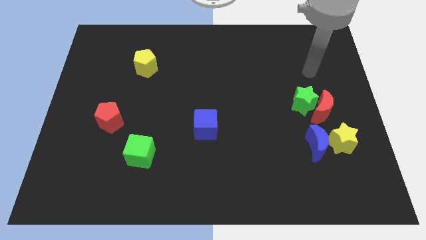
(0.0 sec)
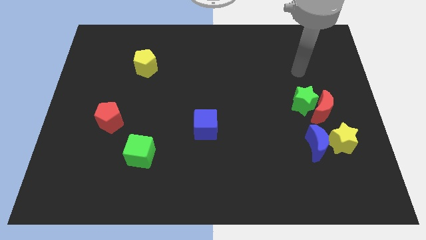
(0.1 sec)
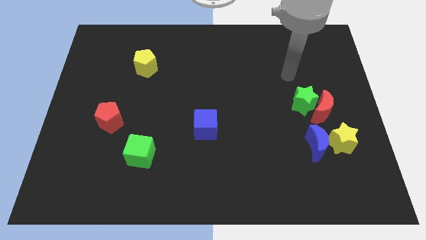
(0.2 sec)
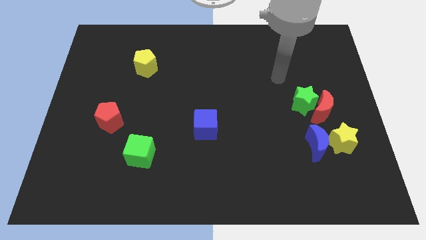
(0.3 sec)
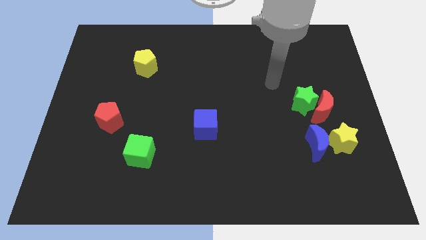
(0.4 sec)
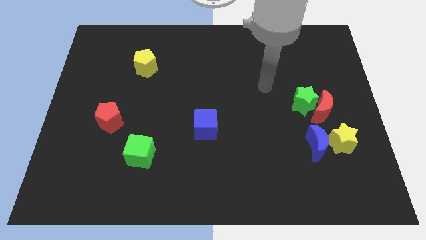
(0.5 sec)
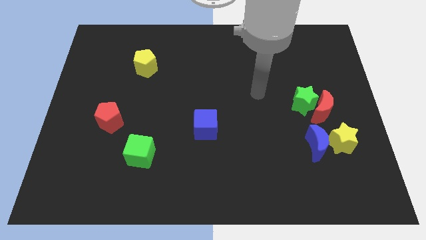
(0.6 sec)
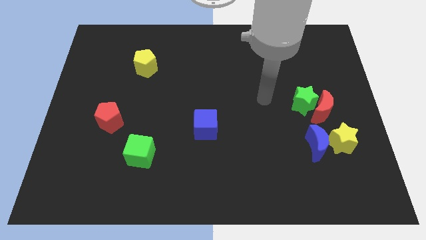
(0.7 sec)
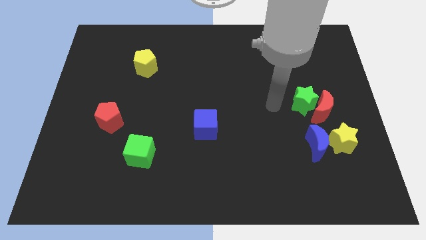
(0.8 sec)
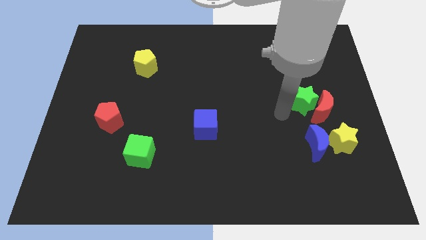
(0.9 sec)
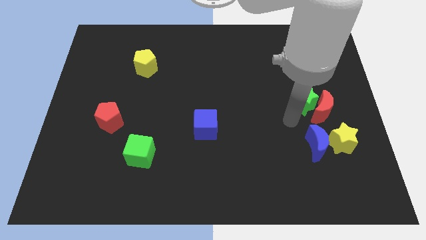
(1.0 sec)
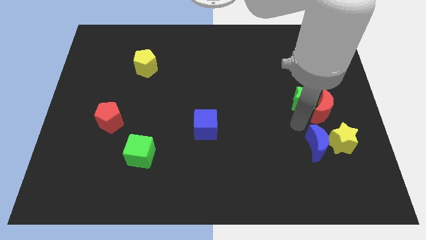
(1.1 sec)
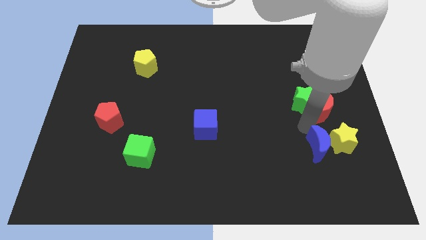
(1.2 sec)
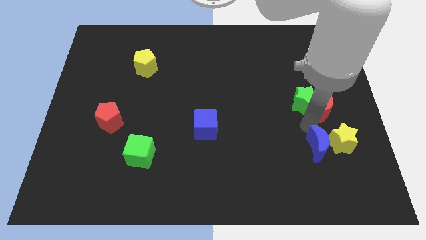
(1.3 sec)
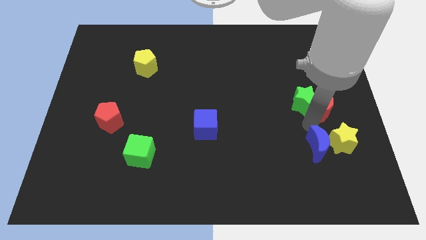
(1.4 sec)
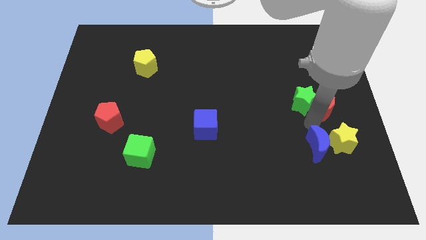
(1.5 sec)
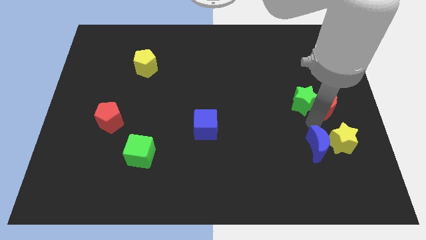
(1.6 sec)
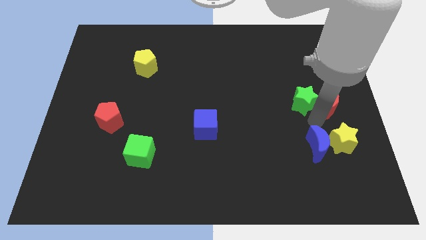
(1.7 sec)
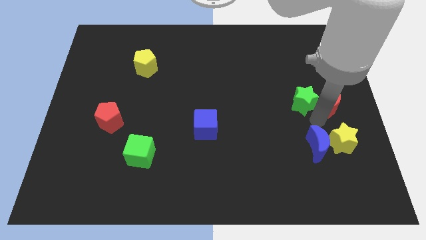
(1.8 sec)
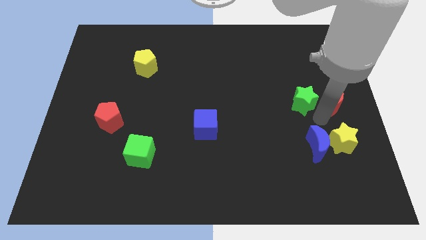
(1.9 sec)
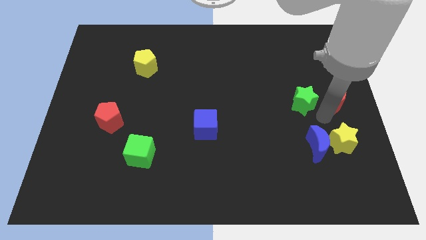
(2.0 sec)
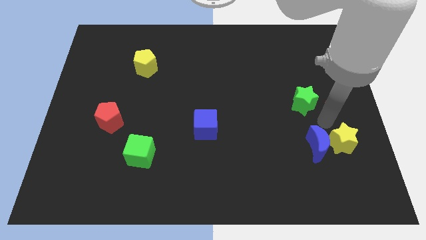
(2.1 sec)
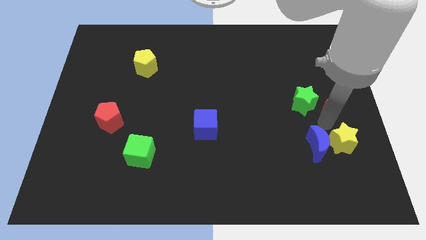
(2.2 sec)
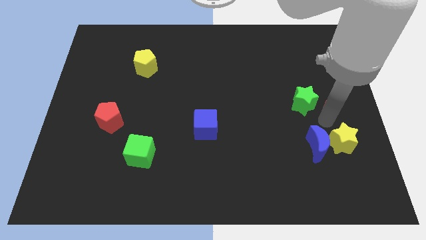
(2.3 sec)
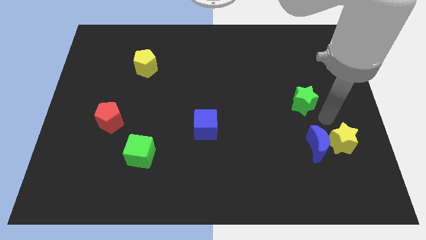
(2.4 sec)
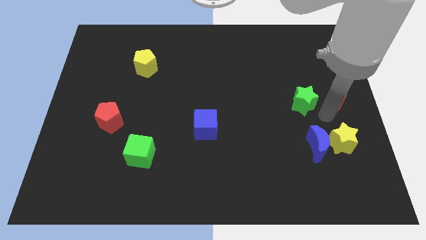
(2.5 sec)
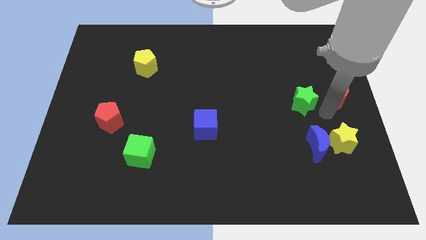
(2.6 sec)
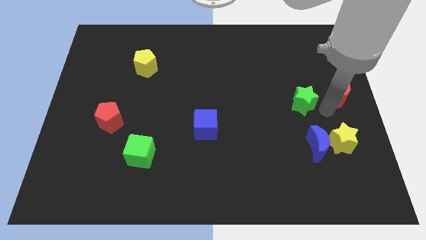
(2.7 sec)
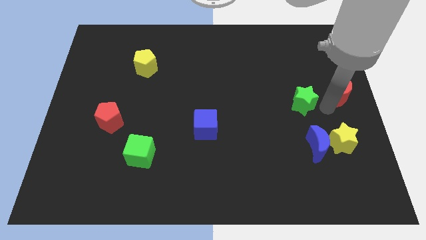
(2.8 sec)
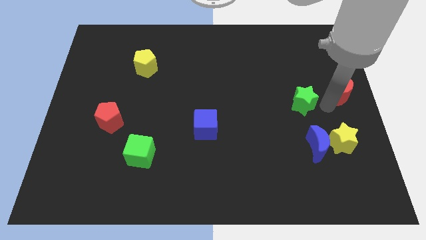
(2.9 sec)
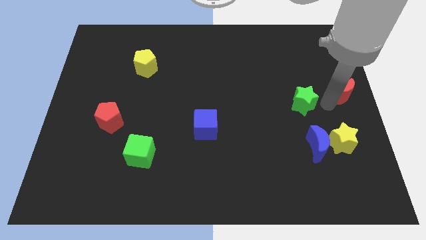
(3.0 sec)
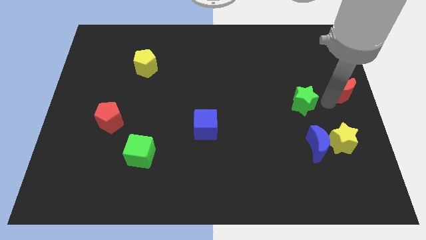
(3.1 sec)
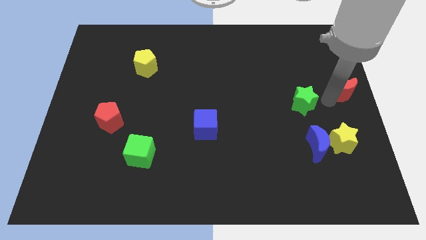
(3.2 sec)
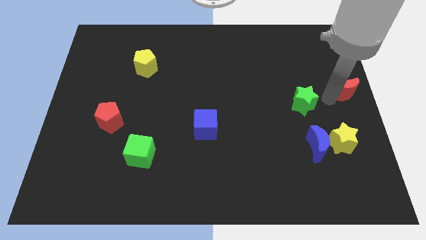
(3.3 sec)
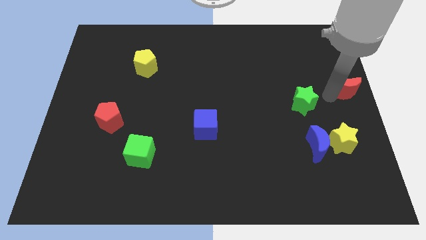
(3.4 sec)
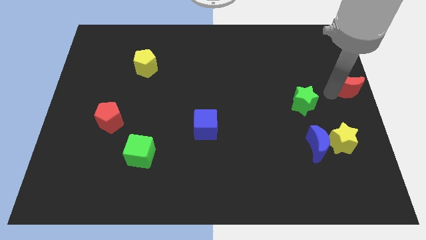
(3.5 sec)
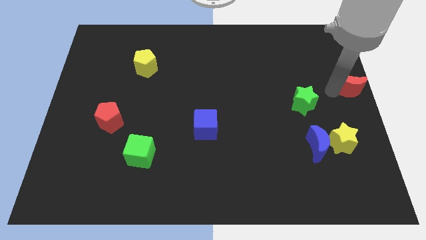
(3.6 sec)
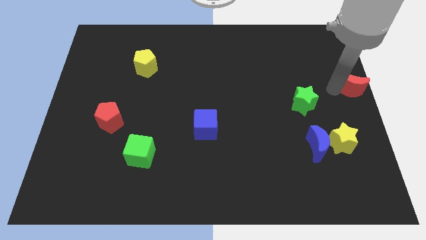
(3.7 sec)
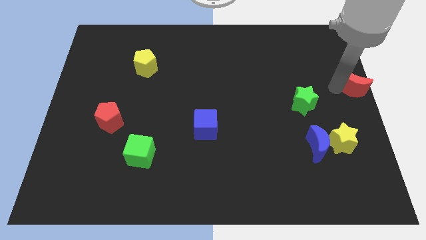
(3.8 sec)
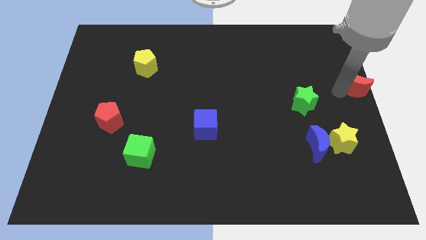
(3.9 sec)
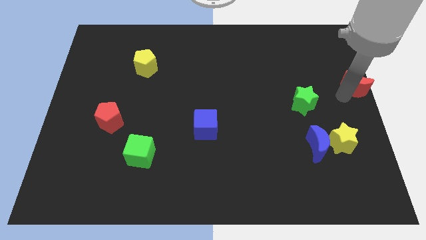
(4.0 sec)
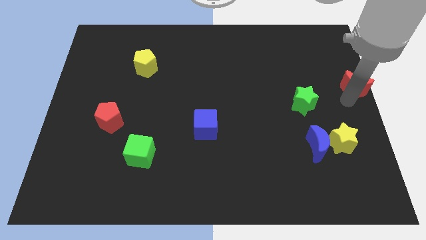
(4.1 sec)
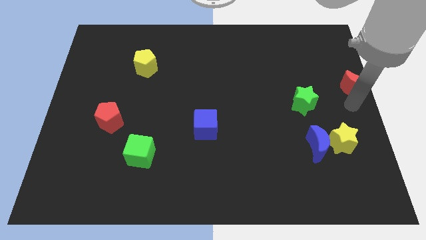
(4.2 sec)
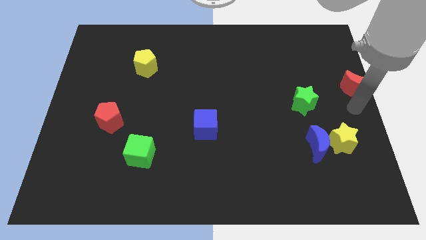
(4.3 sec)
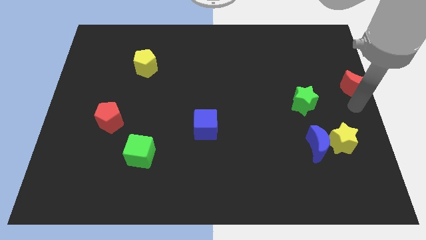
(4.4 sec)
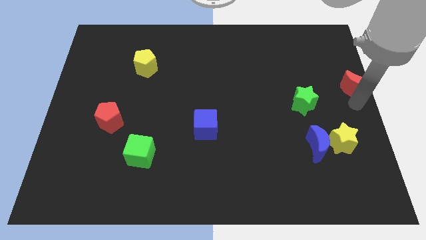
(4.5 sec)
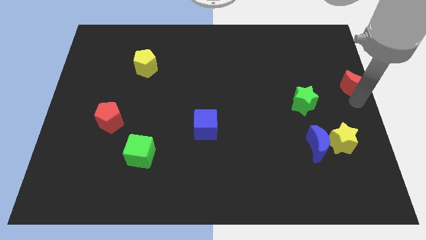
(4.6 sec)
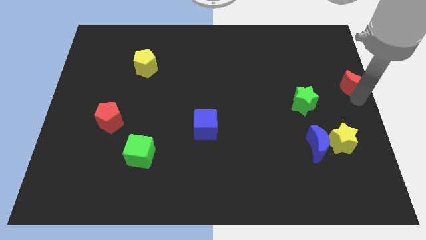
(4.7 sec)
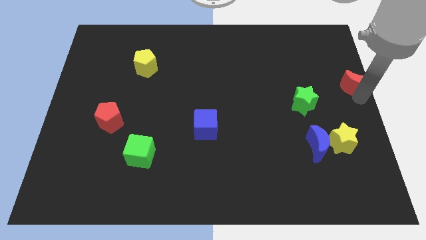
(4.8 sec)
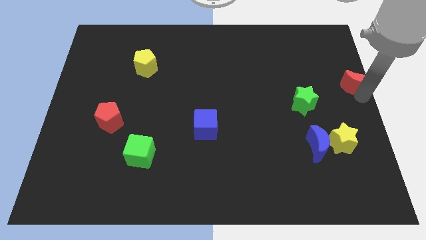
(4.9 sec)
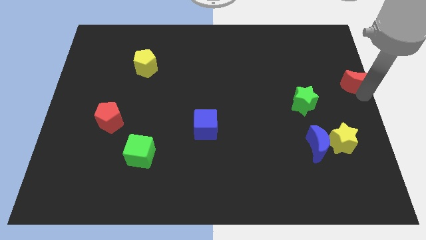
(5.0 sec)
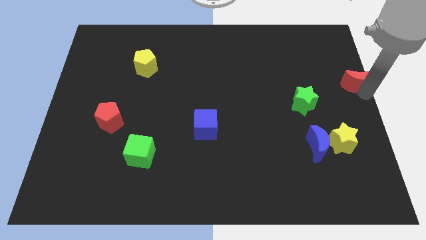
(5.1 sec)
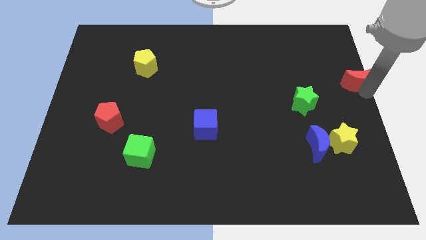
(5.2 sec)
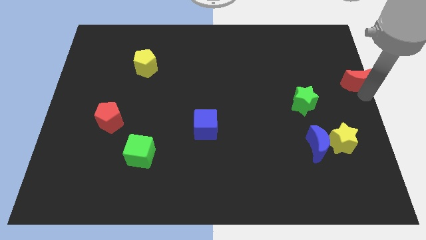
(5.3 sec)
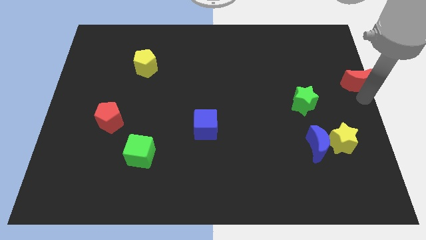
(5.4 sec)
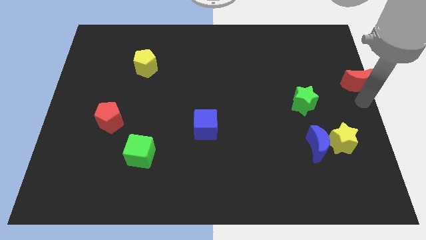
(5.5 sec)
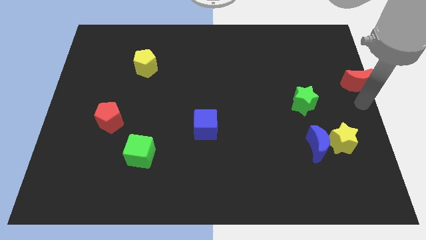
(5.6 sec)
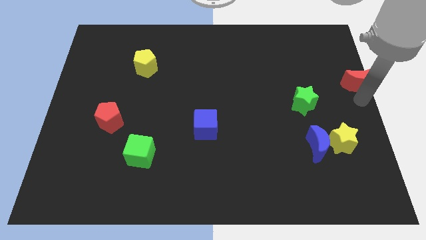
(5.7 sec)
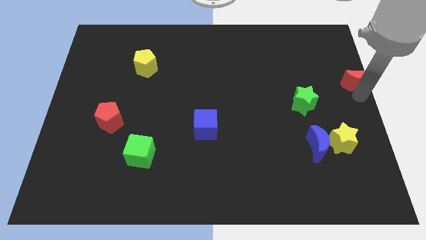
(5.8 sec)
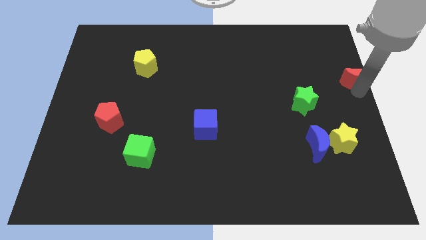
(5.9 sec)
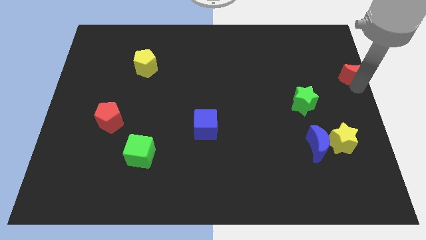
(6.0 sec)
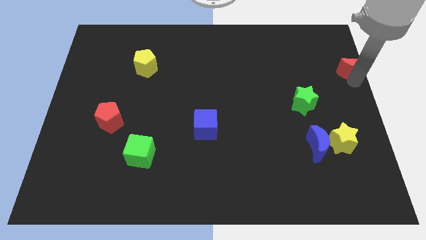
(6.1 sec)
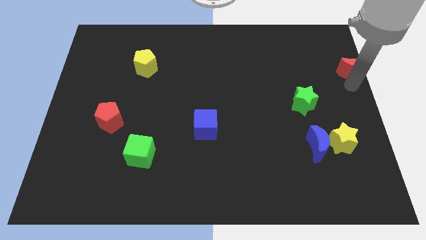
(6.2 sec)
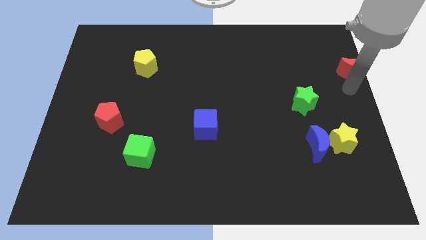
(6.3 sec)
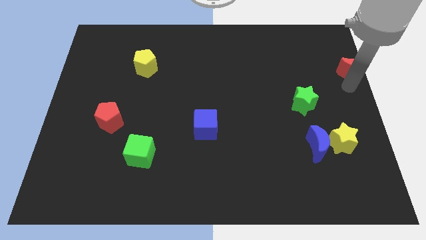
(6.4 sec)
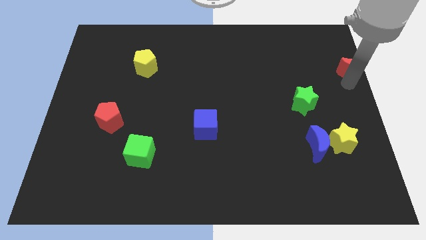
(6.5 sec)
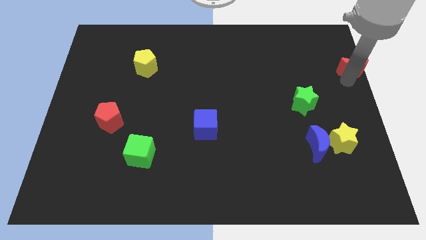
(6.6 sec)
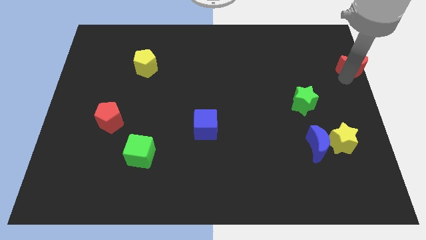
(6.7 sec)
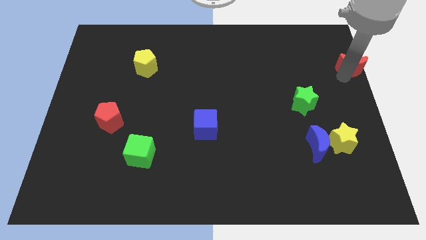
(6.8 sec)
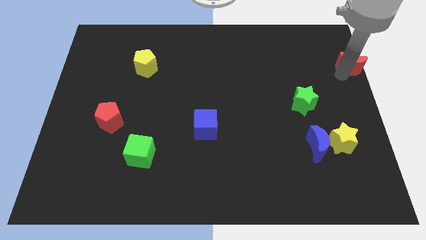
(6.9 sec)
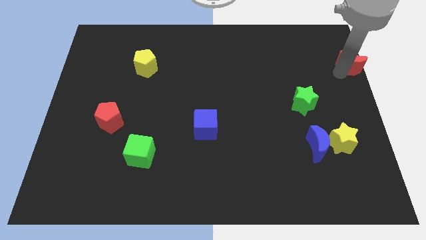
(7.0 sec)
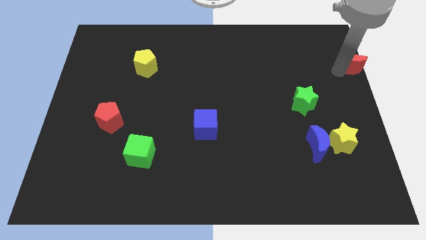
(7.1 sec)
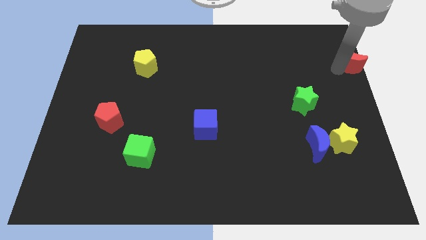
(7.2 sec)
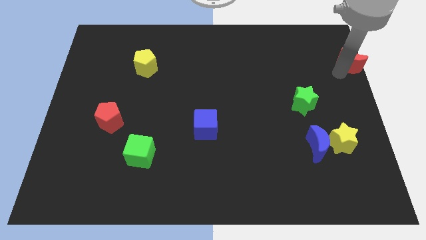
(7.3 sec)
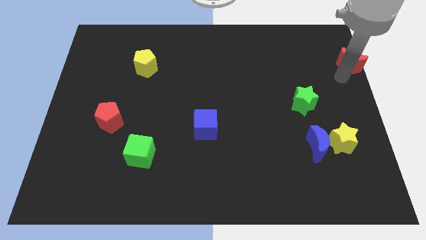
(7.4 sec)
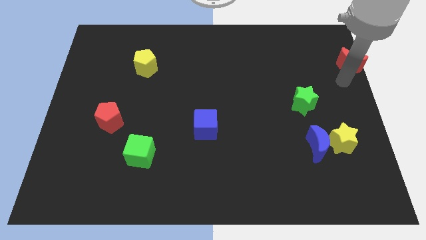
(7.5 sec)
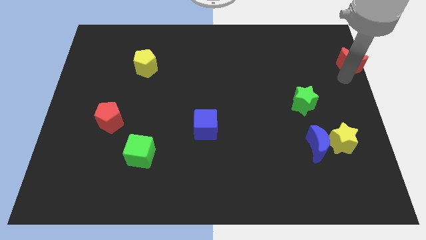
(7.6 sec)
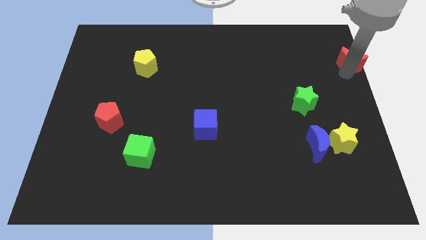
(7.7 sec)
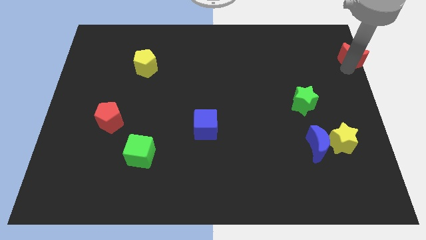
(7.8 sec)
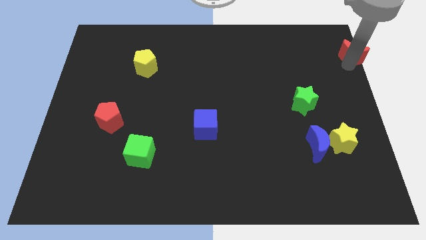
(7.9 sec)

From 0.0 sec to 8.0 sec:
push the red moon to the upper right corner
